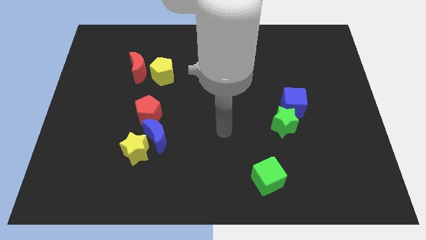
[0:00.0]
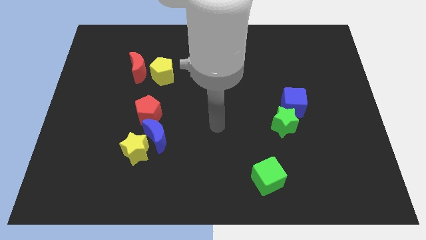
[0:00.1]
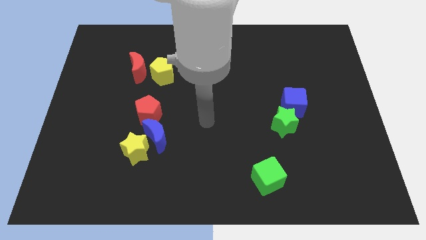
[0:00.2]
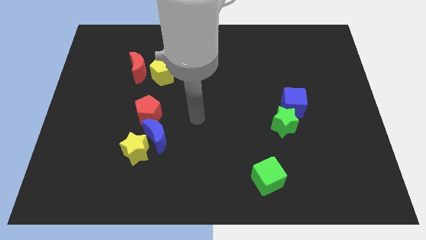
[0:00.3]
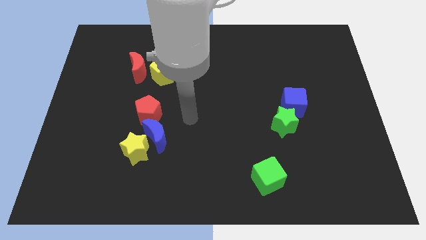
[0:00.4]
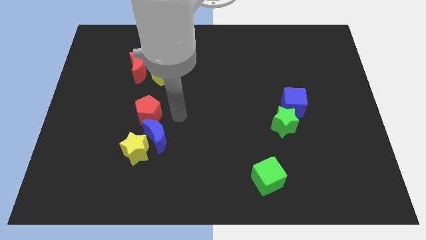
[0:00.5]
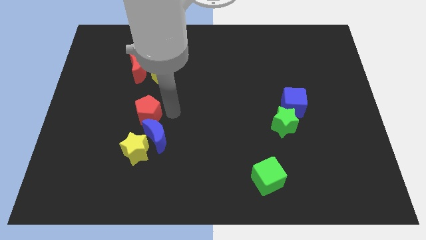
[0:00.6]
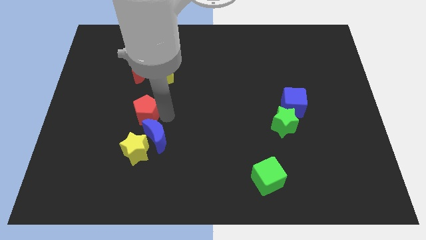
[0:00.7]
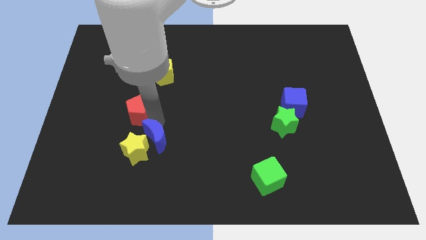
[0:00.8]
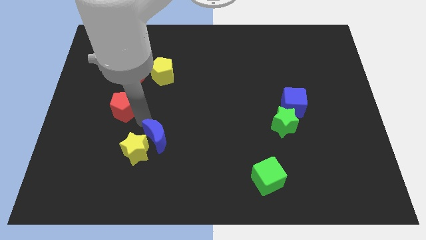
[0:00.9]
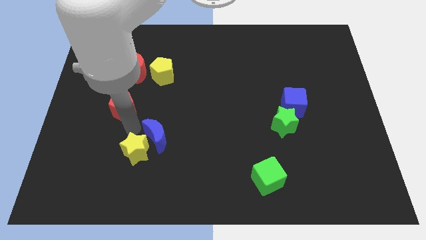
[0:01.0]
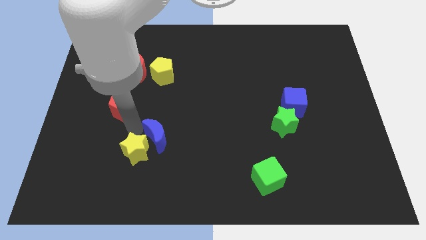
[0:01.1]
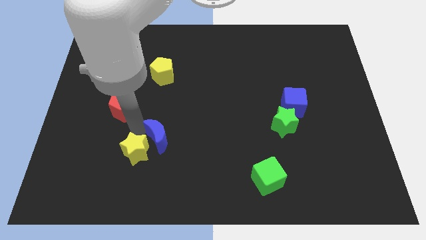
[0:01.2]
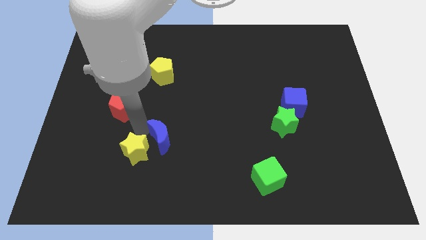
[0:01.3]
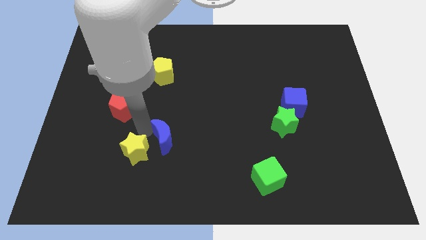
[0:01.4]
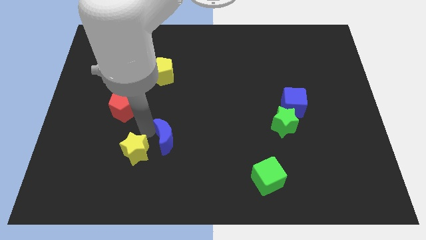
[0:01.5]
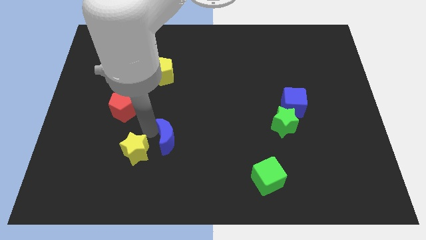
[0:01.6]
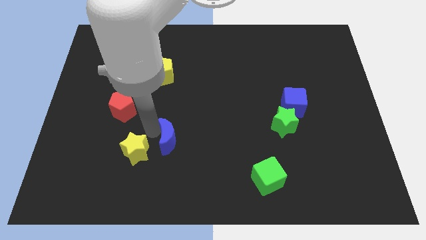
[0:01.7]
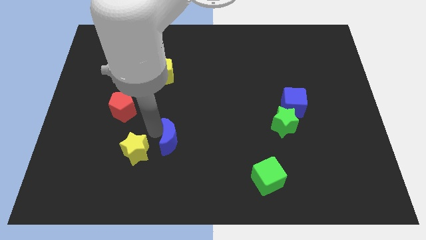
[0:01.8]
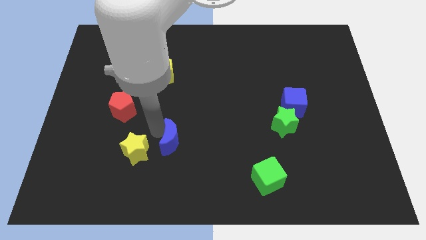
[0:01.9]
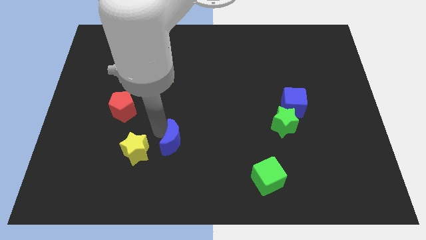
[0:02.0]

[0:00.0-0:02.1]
separate the blue moon from the yellow star and red pentagon

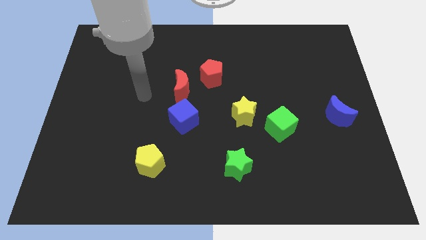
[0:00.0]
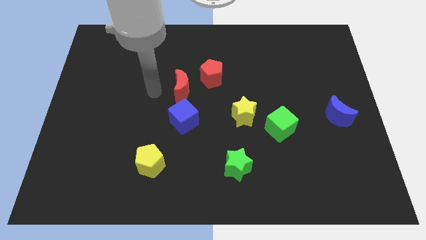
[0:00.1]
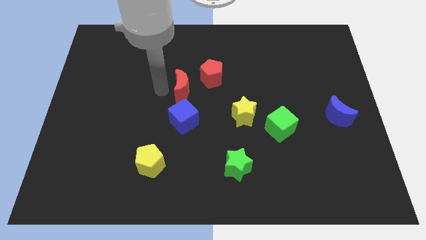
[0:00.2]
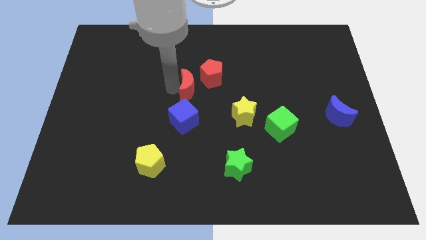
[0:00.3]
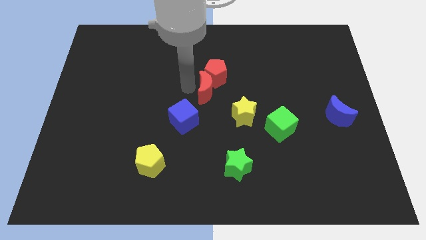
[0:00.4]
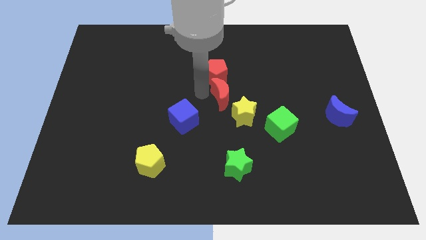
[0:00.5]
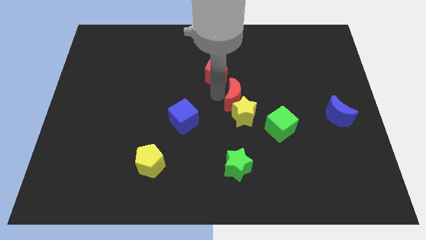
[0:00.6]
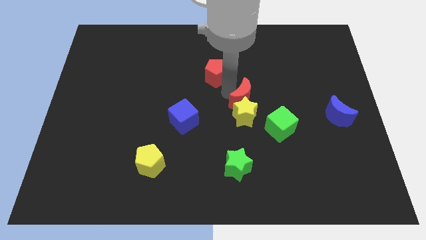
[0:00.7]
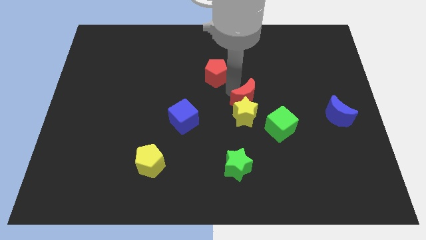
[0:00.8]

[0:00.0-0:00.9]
move the red pentagon away from the red moon

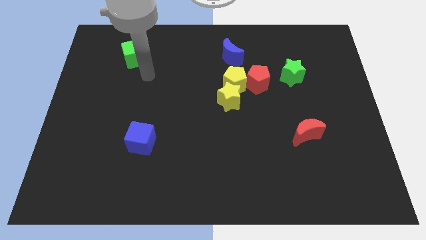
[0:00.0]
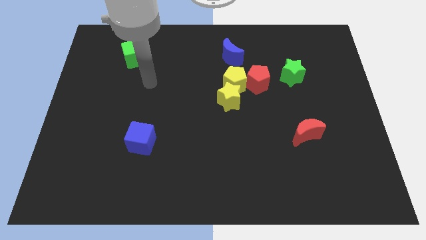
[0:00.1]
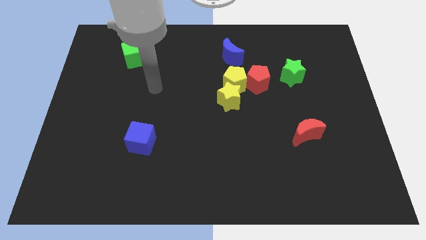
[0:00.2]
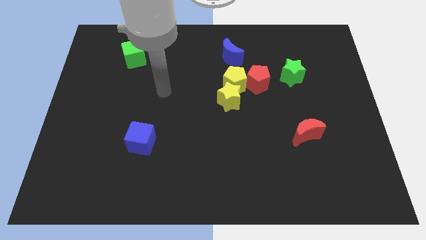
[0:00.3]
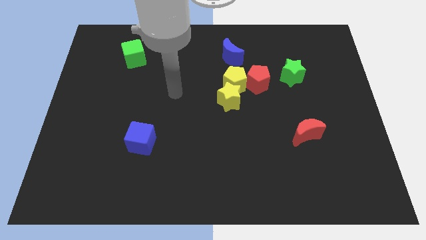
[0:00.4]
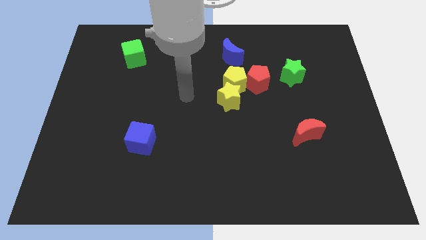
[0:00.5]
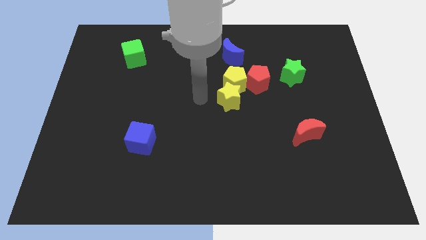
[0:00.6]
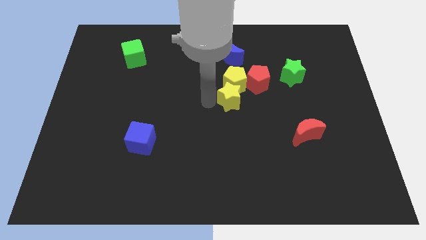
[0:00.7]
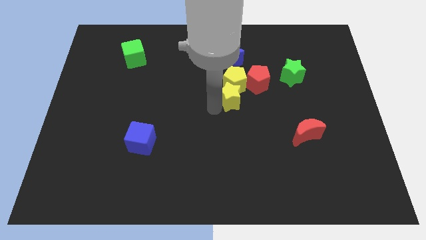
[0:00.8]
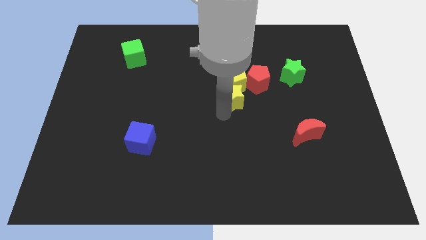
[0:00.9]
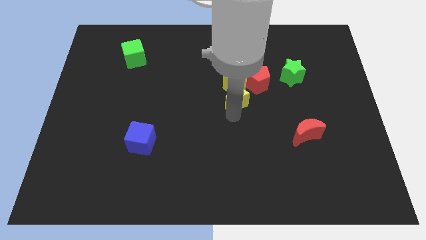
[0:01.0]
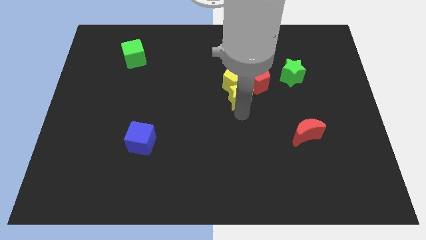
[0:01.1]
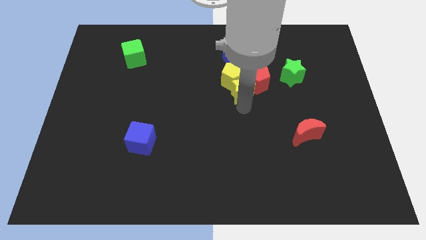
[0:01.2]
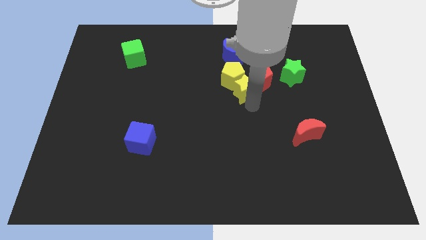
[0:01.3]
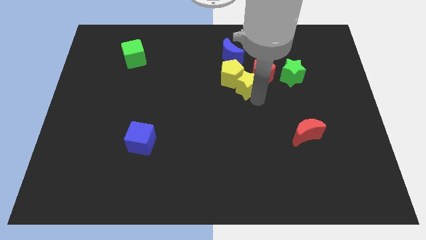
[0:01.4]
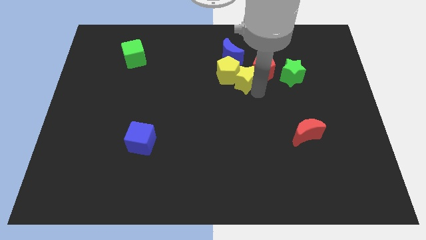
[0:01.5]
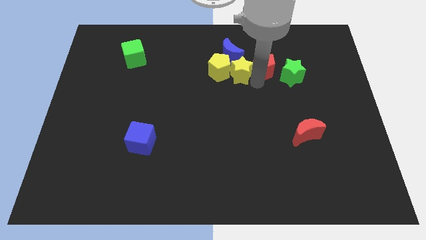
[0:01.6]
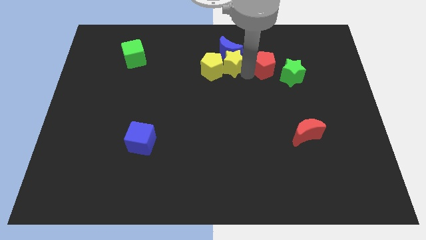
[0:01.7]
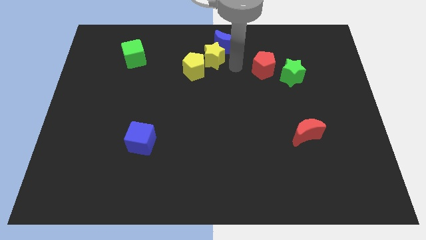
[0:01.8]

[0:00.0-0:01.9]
move the yellow pentagon away from the clump

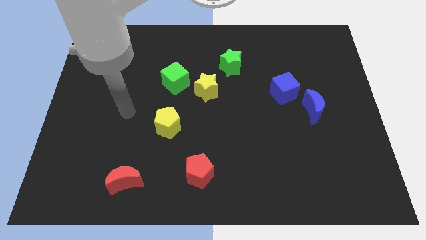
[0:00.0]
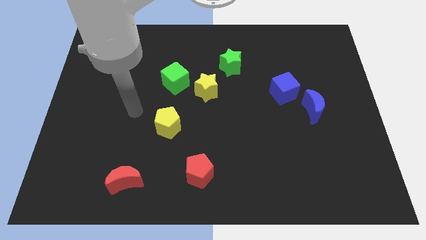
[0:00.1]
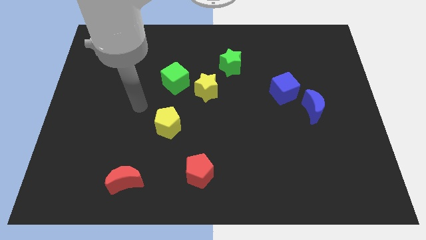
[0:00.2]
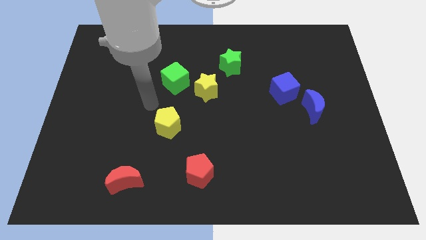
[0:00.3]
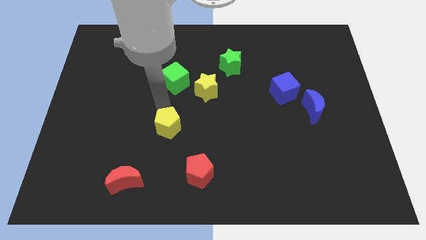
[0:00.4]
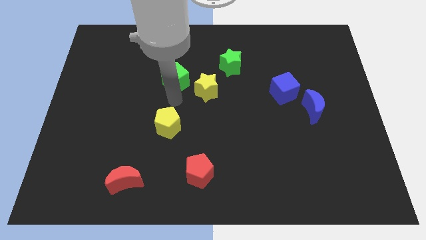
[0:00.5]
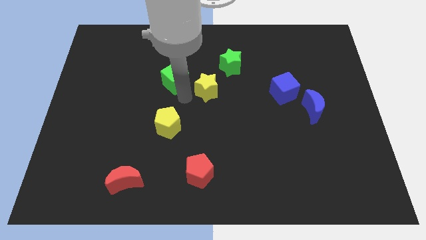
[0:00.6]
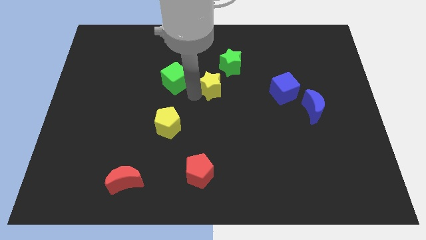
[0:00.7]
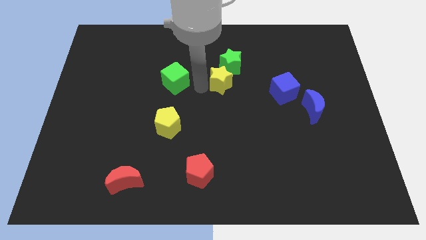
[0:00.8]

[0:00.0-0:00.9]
separate the green cube from the yellow star

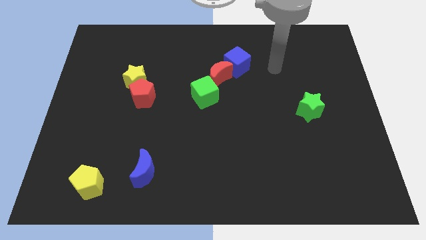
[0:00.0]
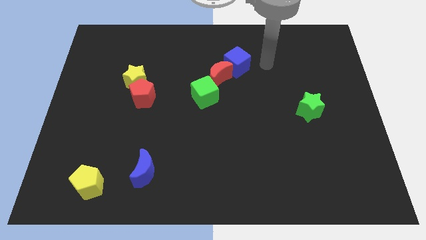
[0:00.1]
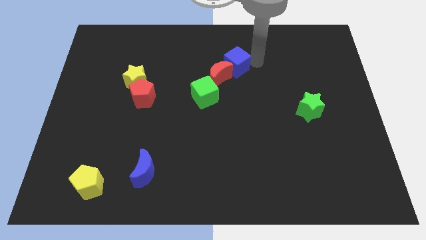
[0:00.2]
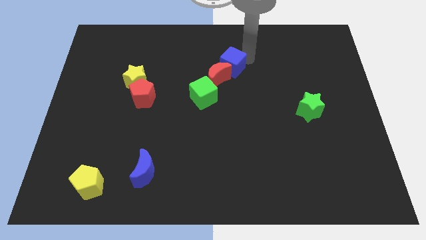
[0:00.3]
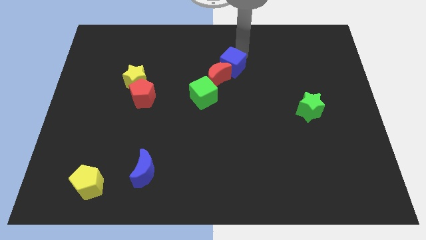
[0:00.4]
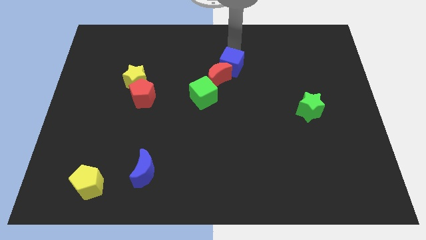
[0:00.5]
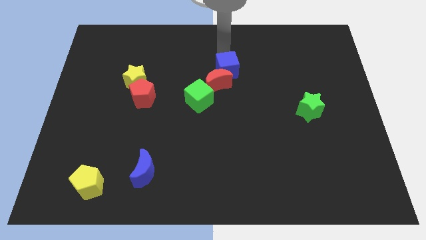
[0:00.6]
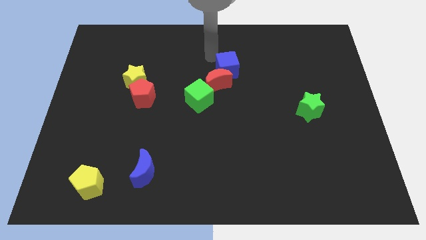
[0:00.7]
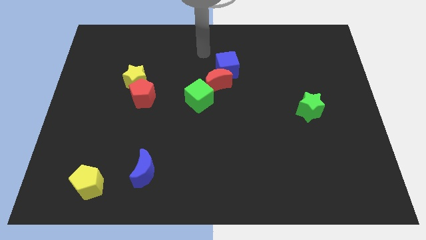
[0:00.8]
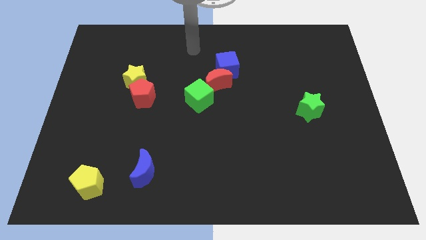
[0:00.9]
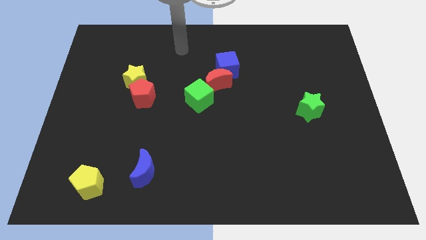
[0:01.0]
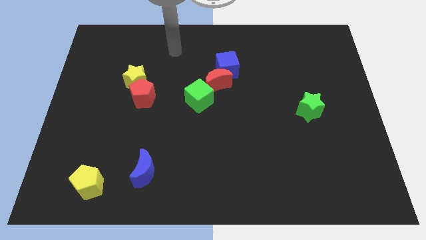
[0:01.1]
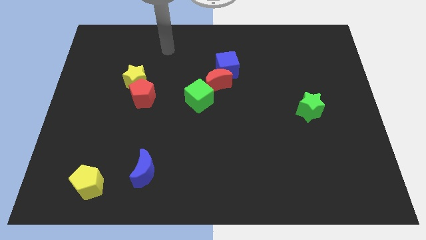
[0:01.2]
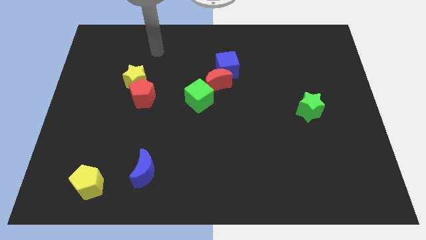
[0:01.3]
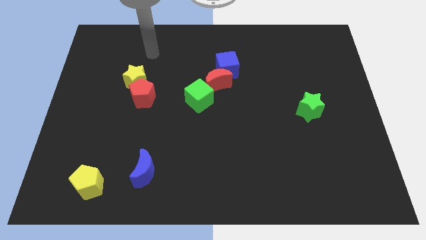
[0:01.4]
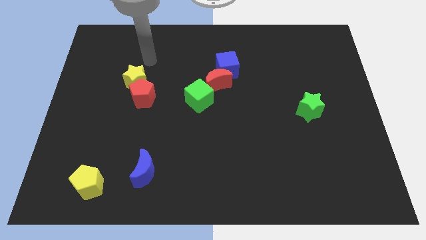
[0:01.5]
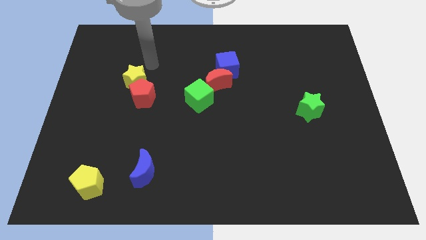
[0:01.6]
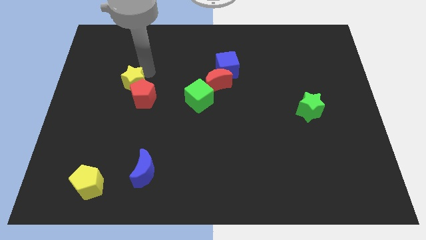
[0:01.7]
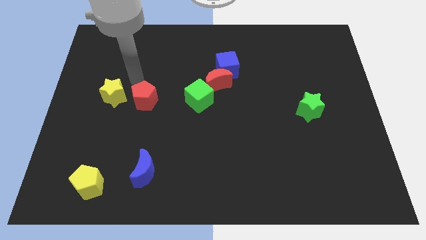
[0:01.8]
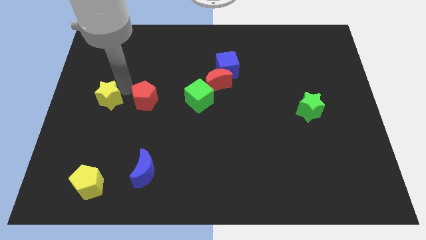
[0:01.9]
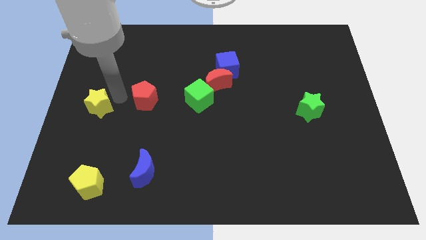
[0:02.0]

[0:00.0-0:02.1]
separate the red pentagon from the yellow star

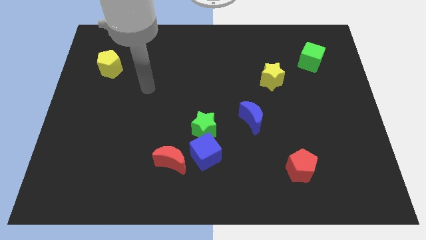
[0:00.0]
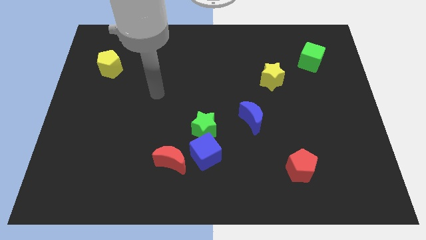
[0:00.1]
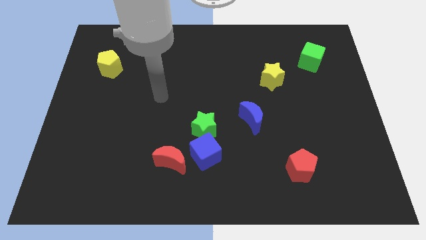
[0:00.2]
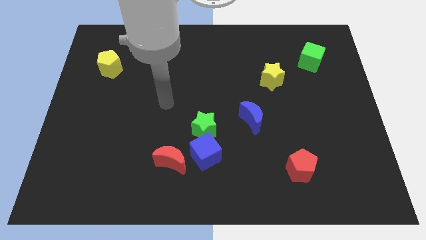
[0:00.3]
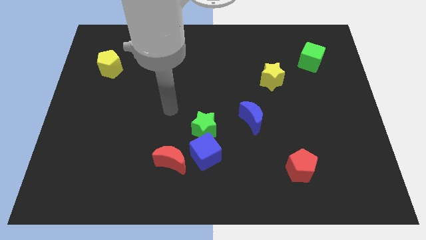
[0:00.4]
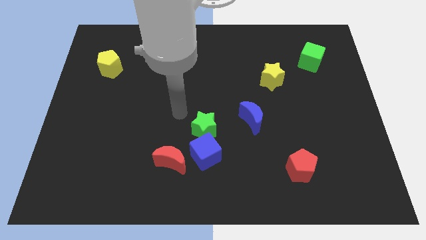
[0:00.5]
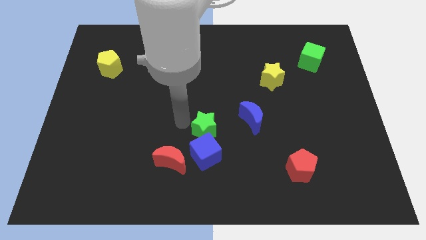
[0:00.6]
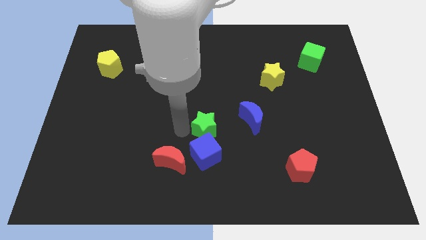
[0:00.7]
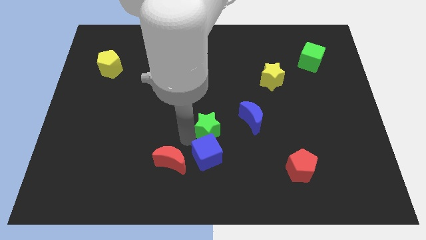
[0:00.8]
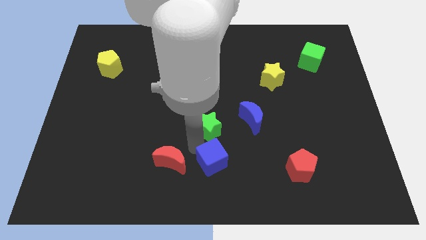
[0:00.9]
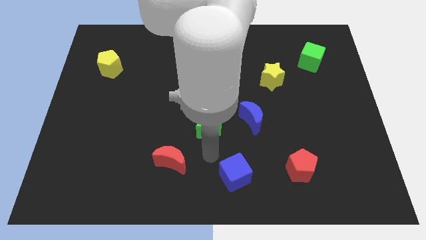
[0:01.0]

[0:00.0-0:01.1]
move the green star away from the blue cube

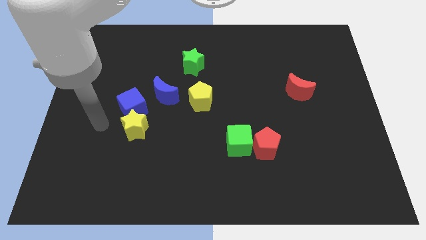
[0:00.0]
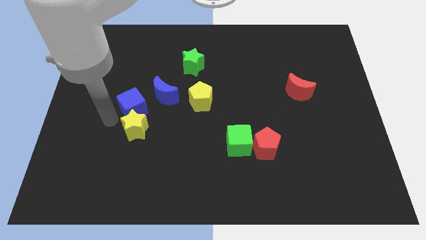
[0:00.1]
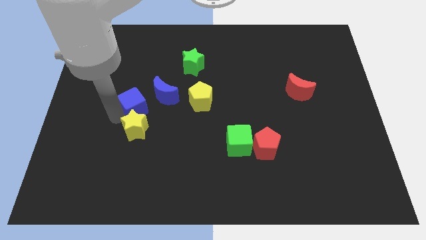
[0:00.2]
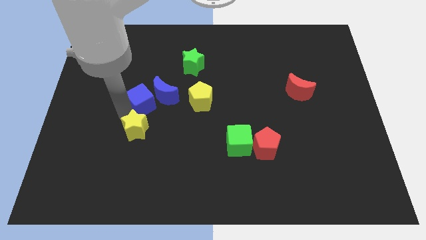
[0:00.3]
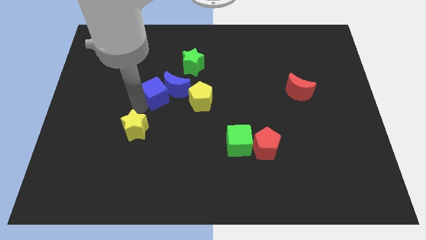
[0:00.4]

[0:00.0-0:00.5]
separate the yellow star from the blue cube
